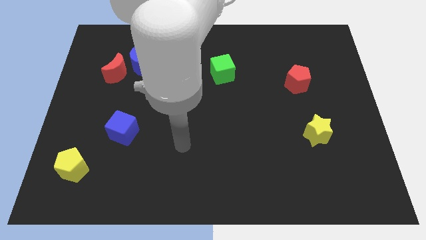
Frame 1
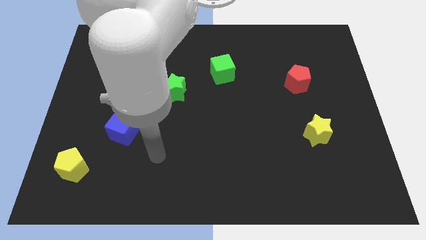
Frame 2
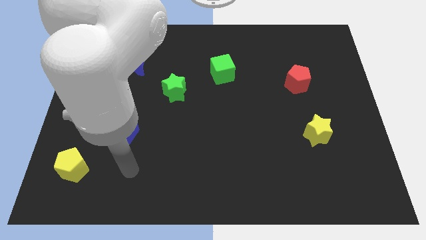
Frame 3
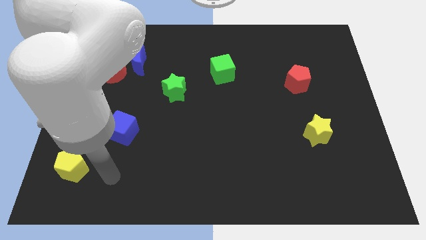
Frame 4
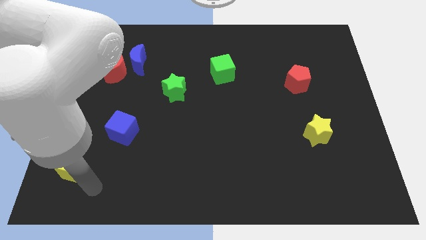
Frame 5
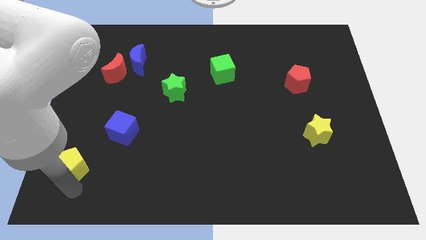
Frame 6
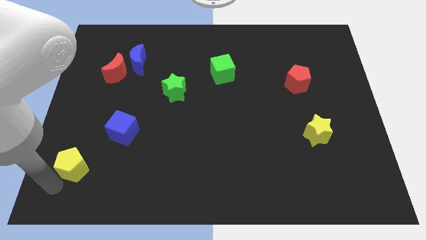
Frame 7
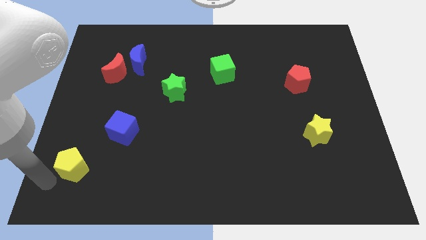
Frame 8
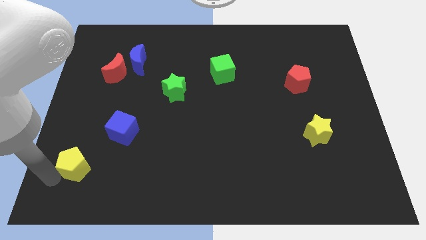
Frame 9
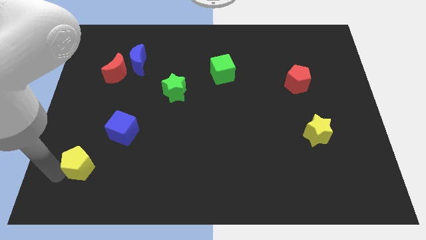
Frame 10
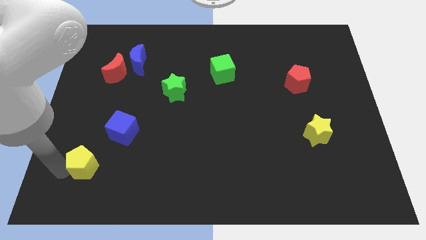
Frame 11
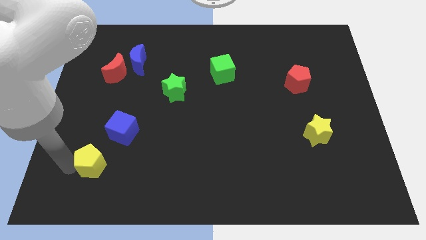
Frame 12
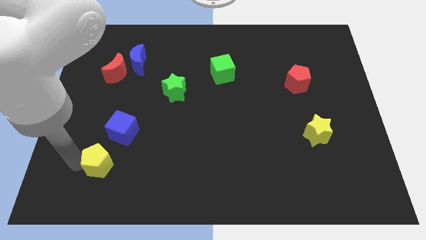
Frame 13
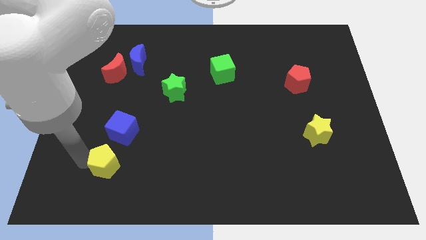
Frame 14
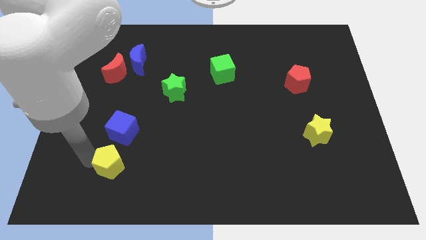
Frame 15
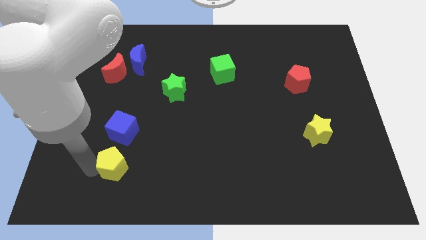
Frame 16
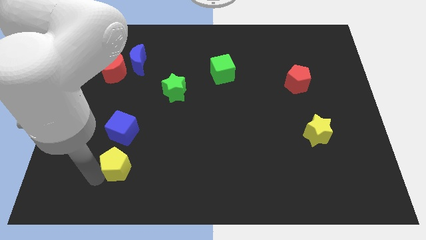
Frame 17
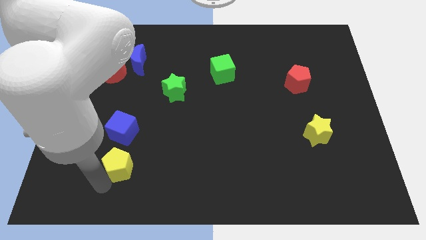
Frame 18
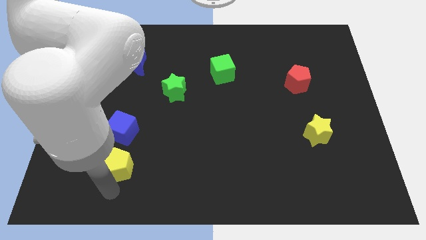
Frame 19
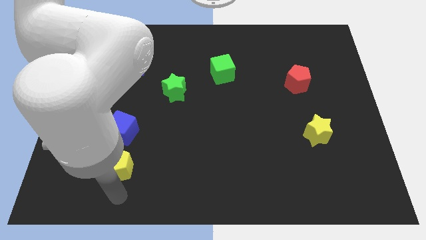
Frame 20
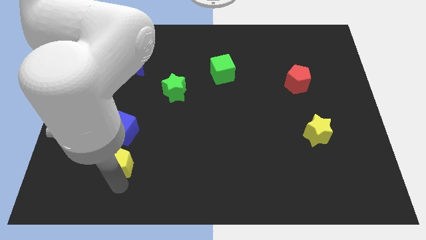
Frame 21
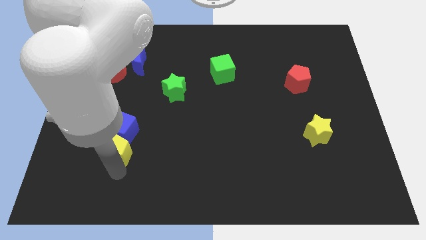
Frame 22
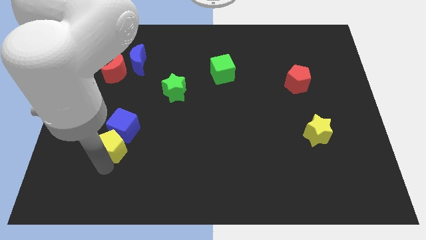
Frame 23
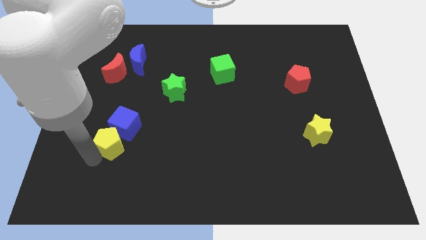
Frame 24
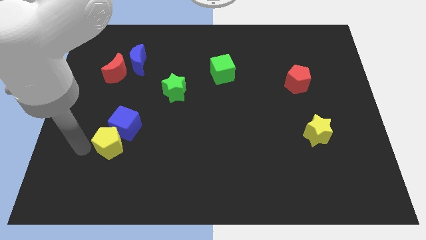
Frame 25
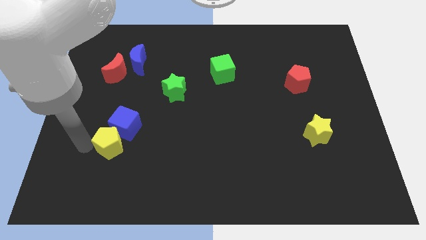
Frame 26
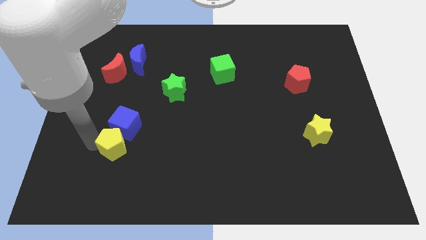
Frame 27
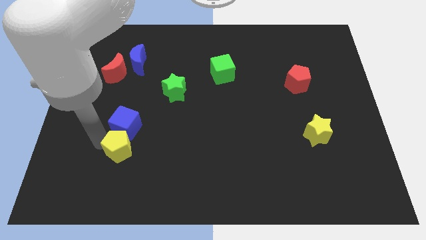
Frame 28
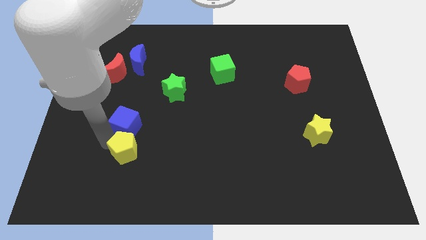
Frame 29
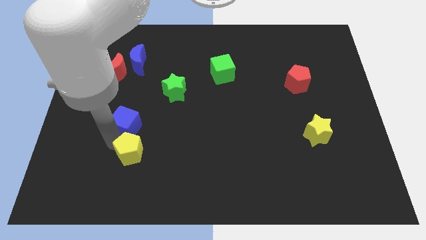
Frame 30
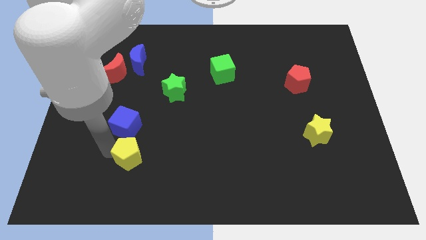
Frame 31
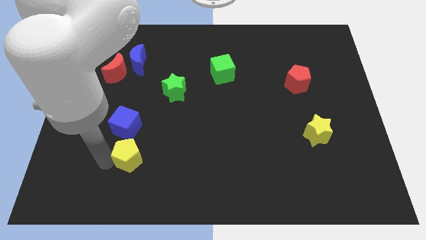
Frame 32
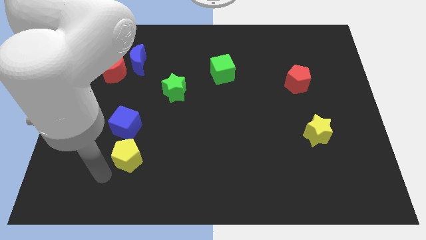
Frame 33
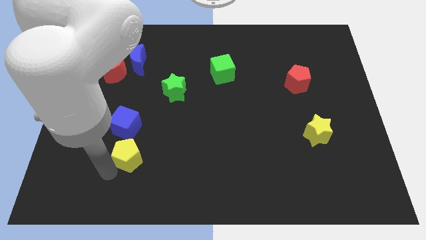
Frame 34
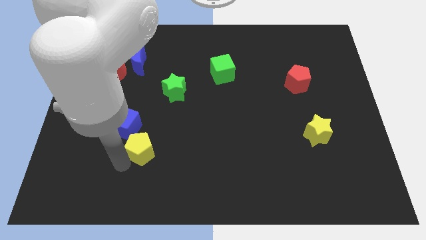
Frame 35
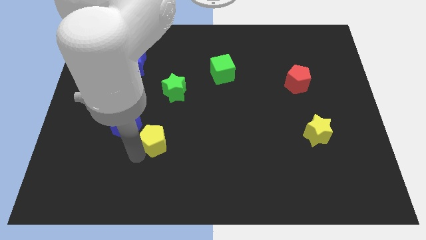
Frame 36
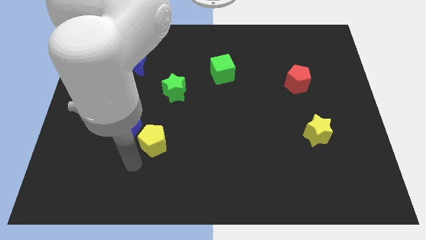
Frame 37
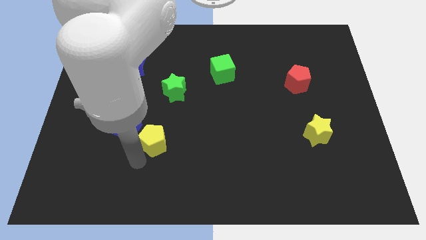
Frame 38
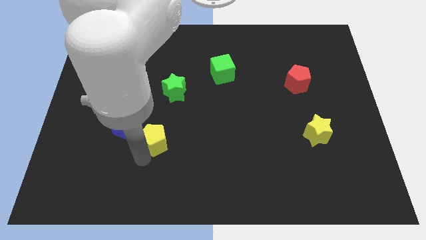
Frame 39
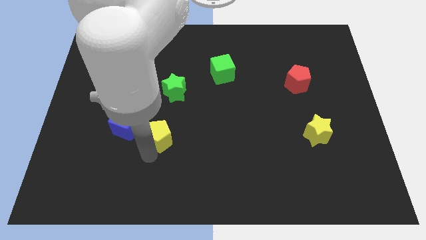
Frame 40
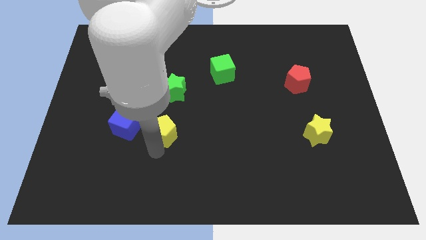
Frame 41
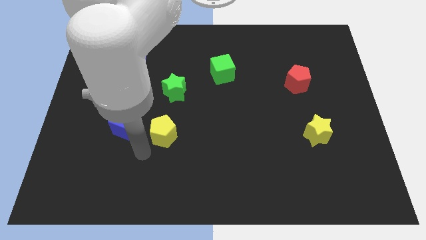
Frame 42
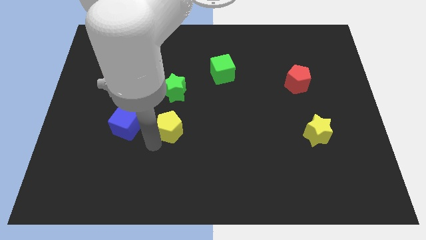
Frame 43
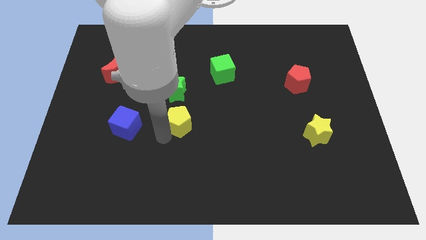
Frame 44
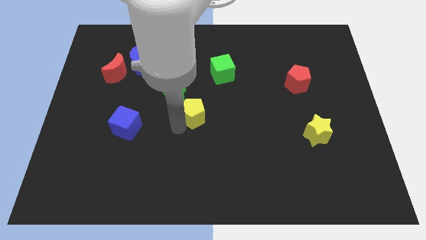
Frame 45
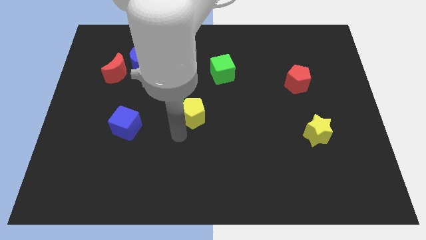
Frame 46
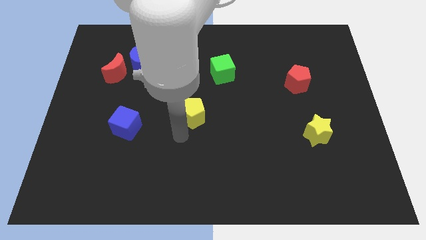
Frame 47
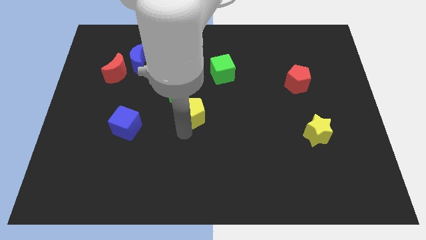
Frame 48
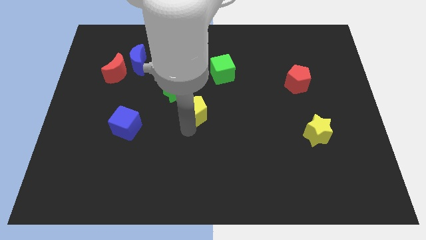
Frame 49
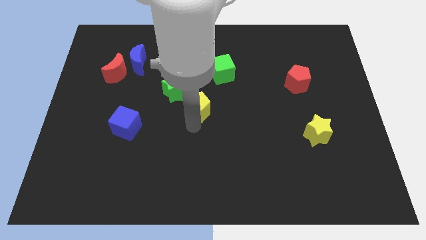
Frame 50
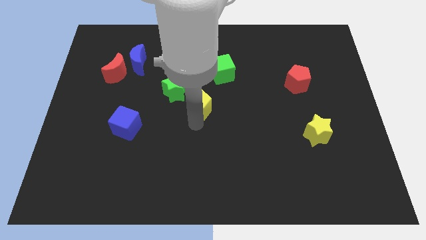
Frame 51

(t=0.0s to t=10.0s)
put the yellow pentagon to the right of the green star

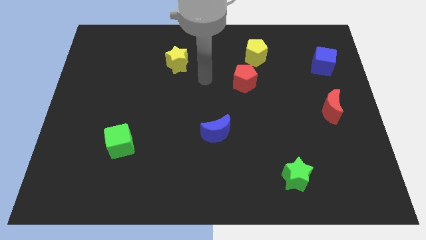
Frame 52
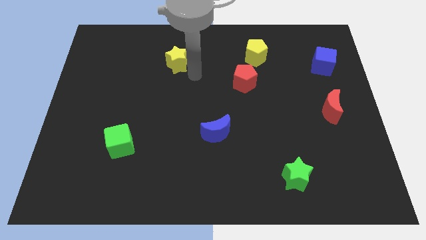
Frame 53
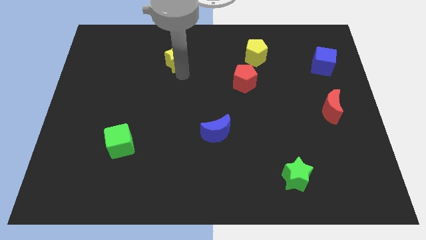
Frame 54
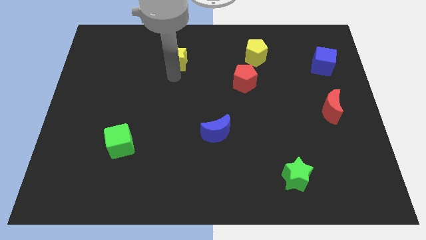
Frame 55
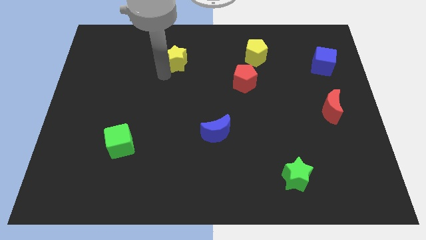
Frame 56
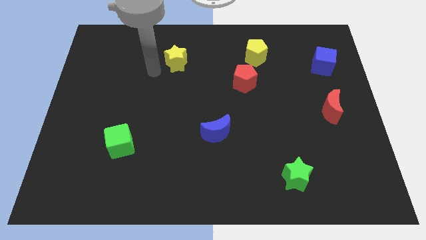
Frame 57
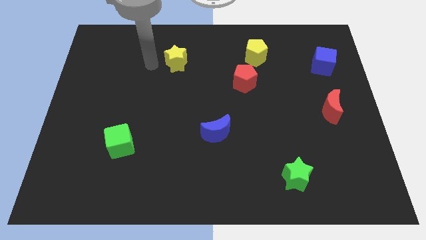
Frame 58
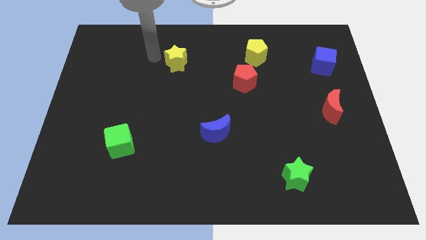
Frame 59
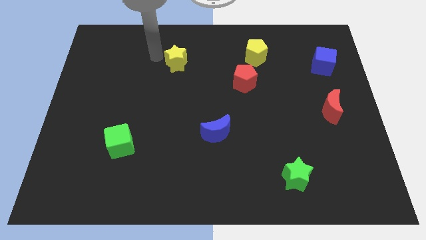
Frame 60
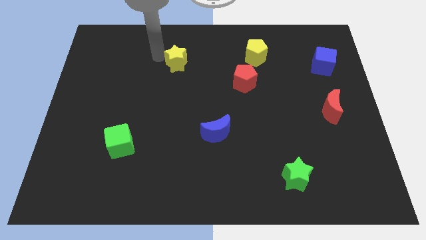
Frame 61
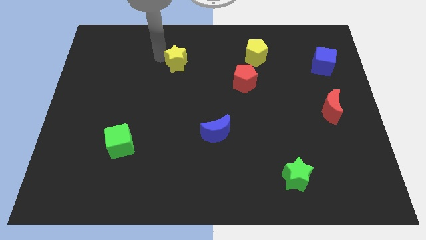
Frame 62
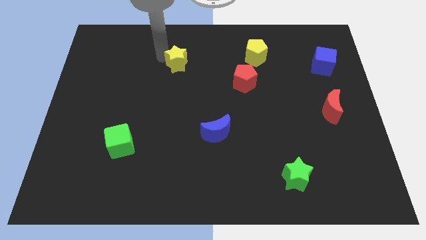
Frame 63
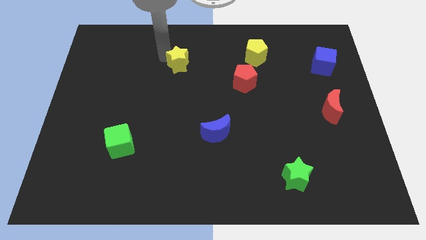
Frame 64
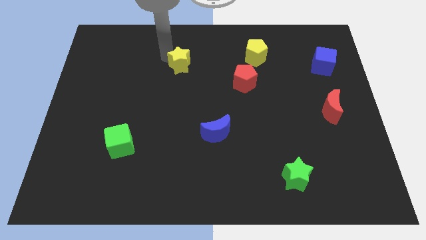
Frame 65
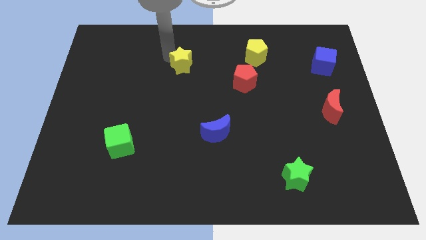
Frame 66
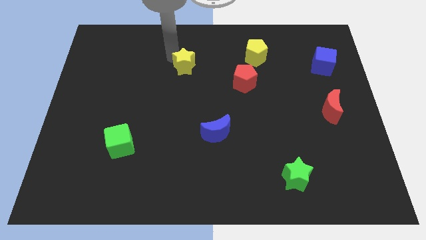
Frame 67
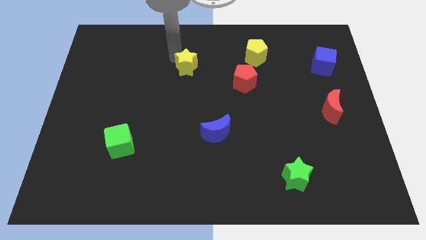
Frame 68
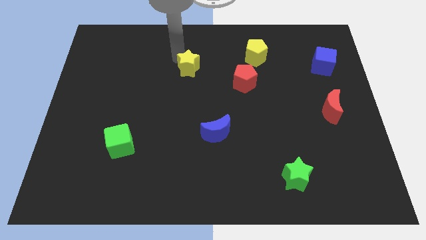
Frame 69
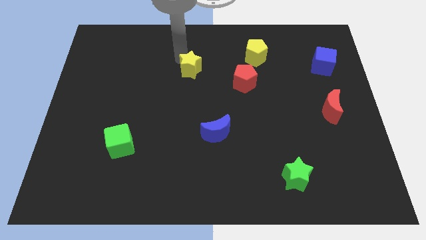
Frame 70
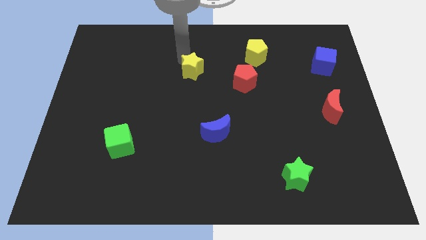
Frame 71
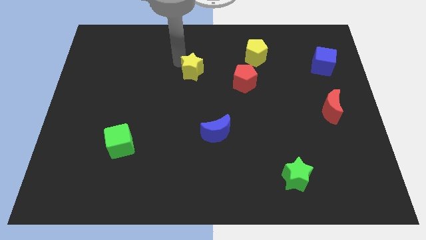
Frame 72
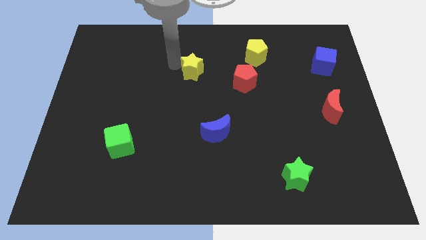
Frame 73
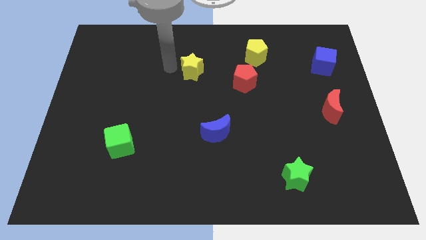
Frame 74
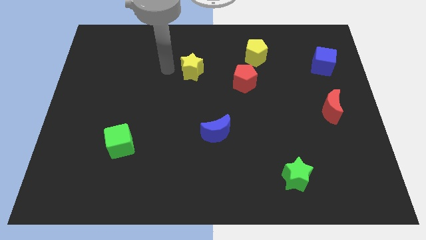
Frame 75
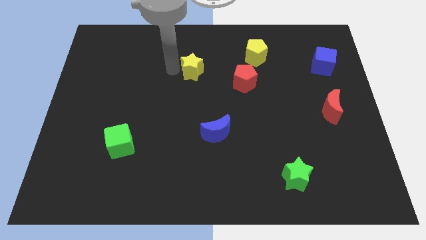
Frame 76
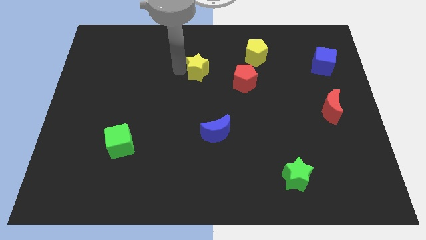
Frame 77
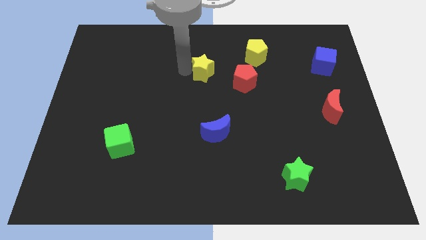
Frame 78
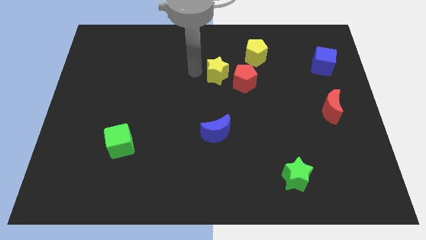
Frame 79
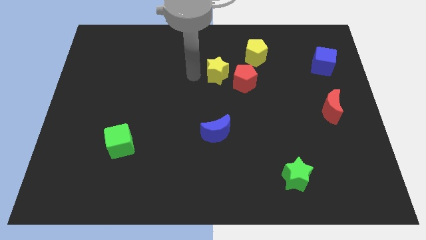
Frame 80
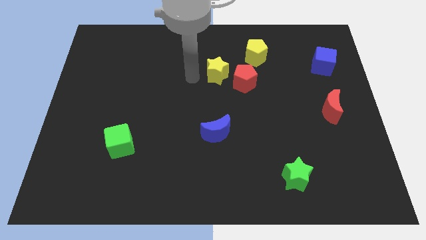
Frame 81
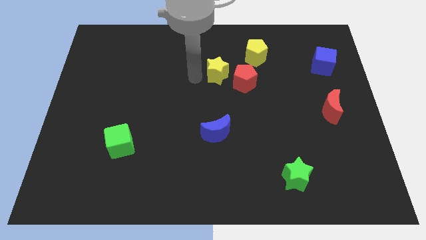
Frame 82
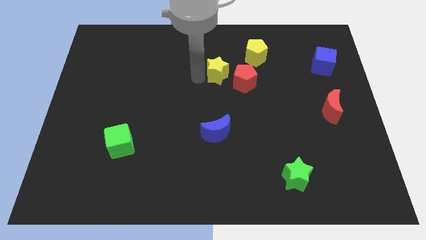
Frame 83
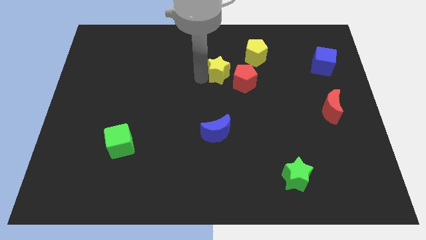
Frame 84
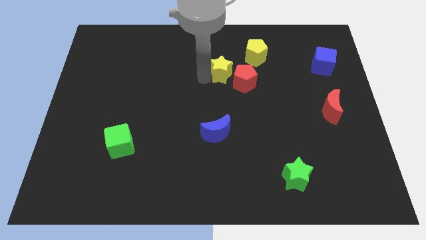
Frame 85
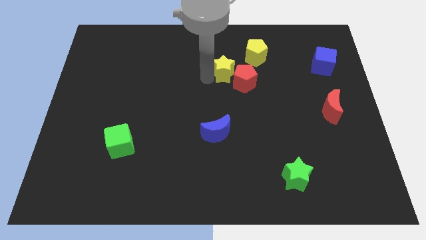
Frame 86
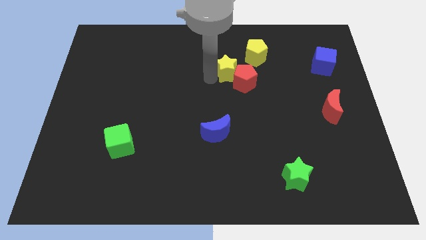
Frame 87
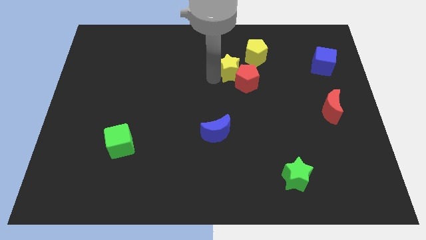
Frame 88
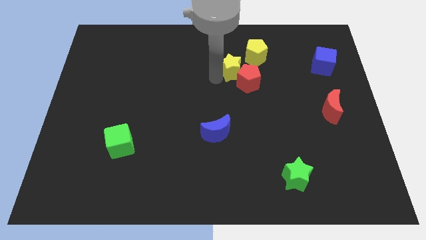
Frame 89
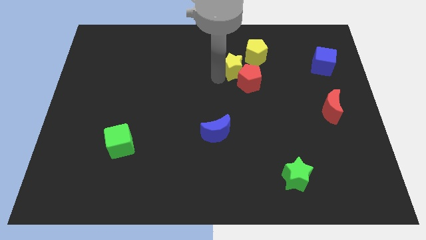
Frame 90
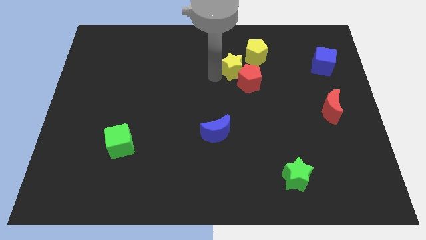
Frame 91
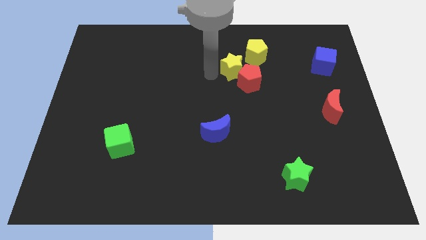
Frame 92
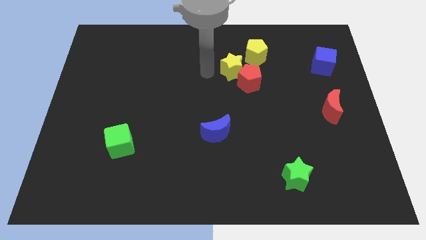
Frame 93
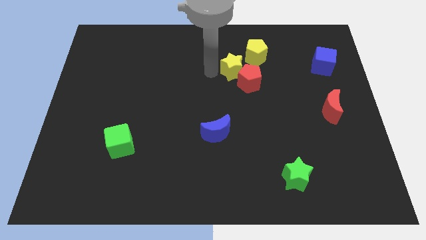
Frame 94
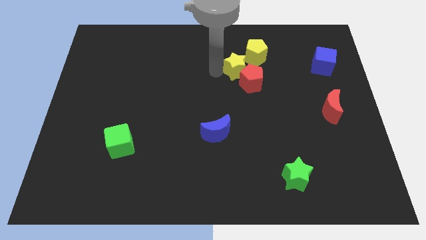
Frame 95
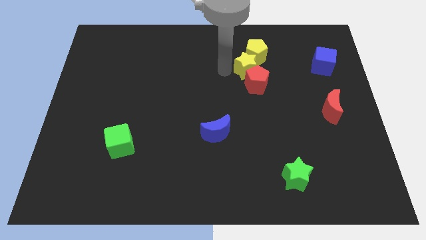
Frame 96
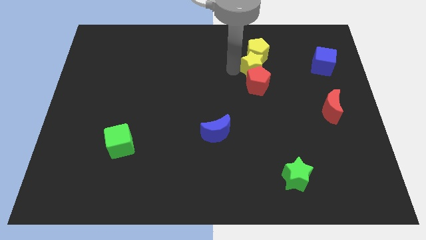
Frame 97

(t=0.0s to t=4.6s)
move the yellow star to the top right of the red pentagon
